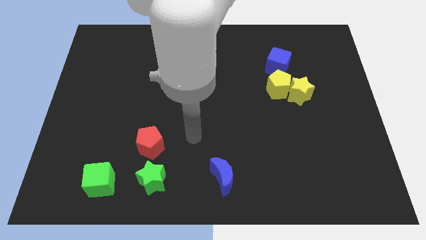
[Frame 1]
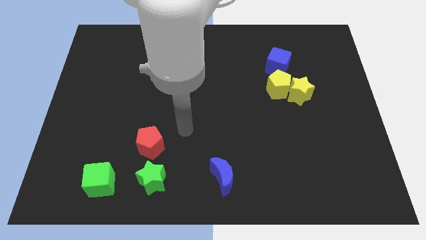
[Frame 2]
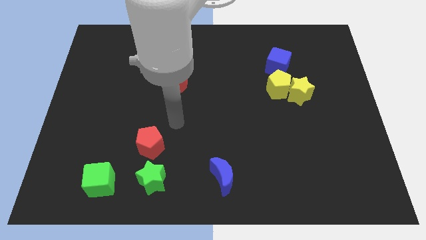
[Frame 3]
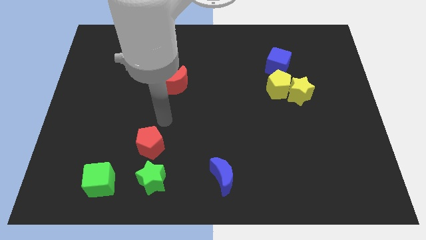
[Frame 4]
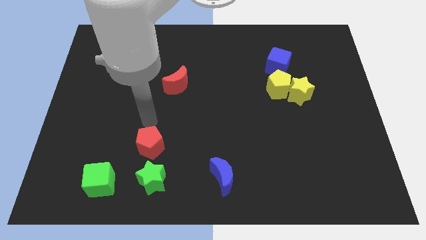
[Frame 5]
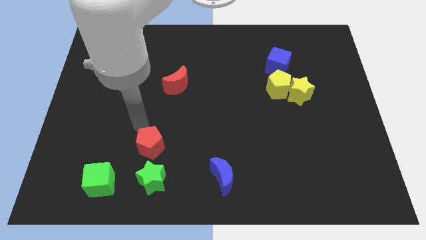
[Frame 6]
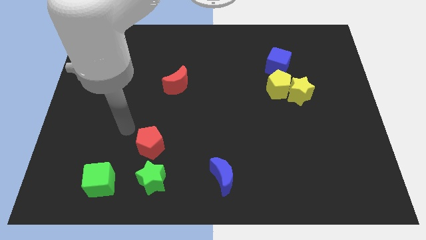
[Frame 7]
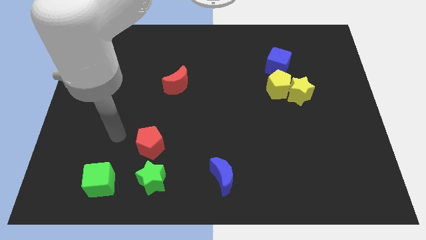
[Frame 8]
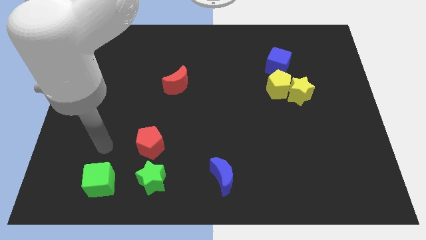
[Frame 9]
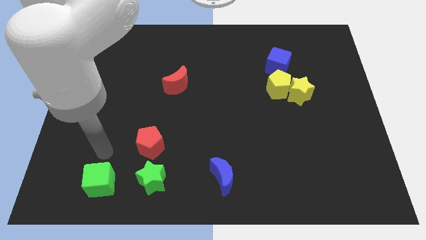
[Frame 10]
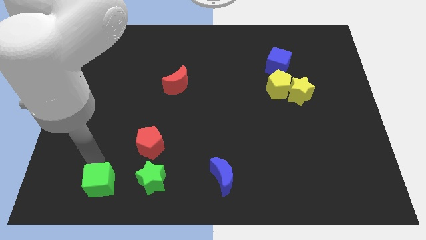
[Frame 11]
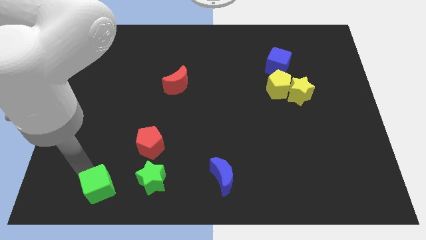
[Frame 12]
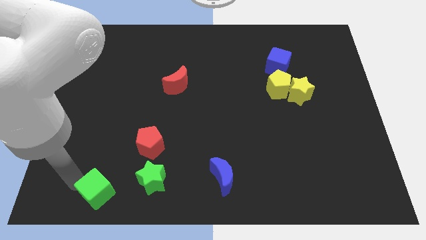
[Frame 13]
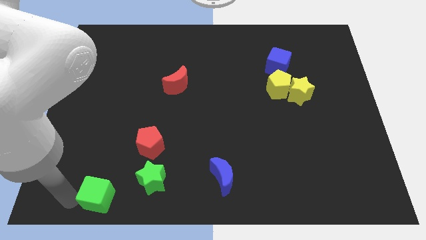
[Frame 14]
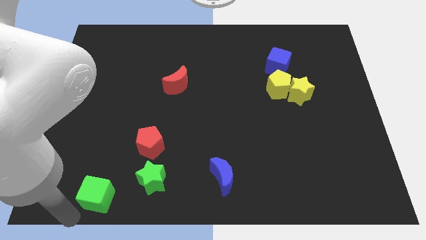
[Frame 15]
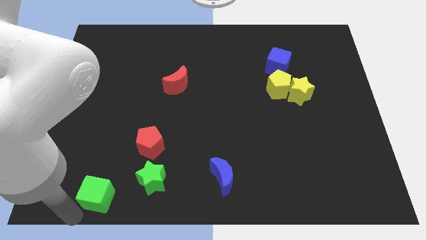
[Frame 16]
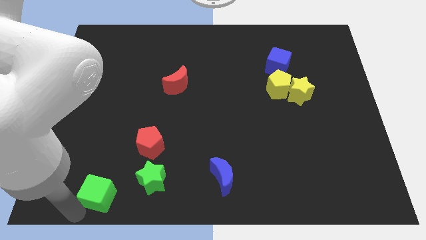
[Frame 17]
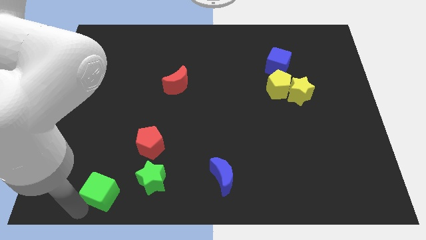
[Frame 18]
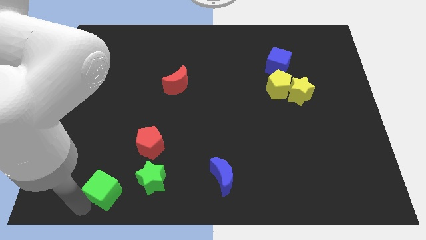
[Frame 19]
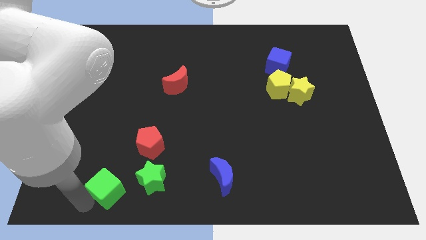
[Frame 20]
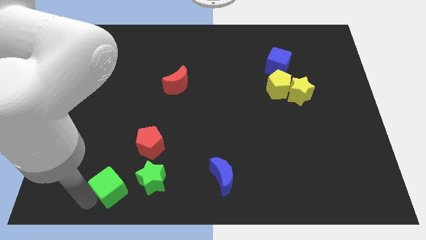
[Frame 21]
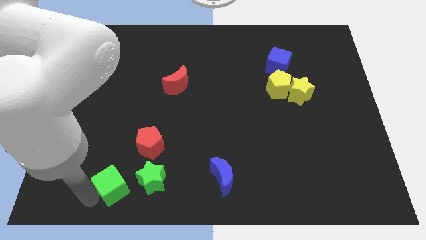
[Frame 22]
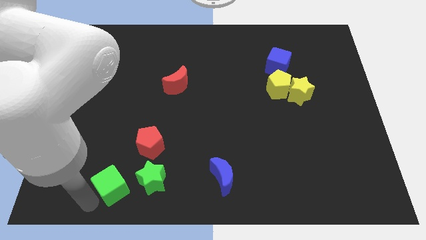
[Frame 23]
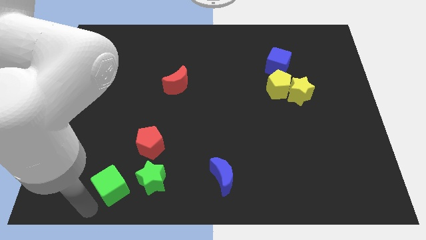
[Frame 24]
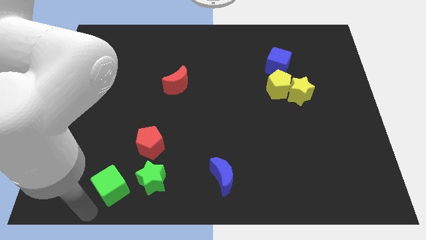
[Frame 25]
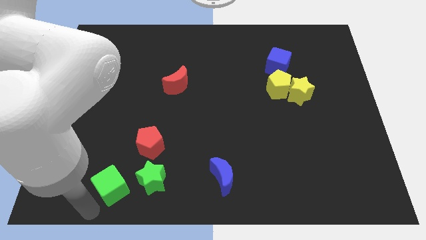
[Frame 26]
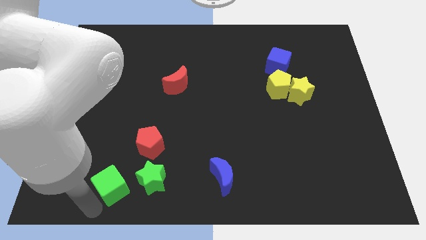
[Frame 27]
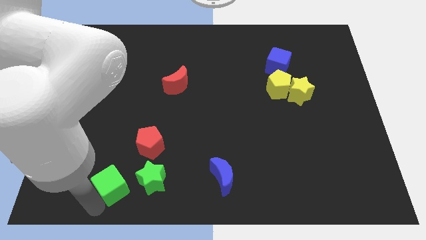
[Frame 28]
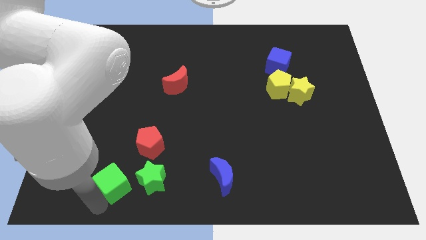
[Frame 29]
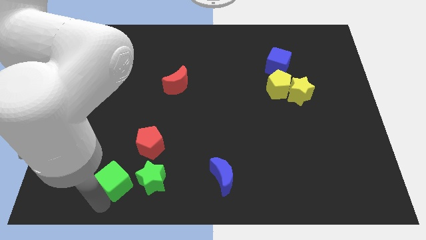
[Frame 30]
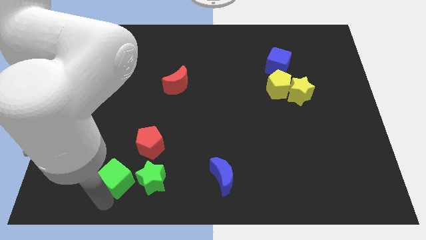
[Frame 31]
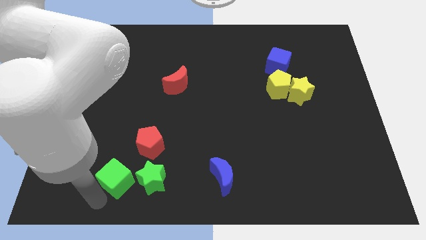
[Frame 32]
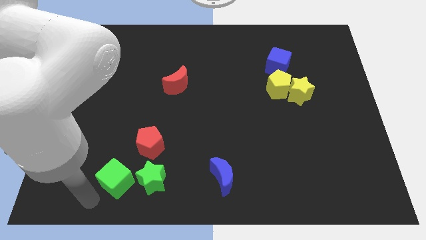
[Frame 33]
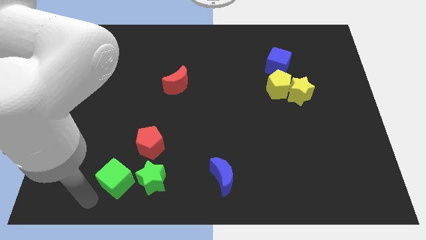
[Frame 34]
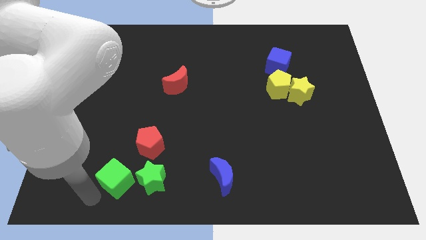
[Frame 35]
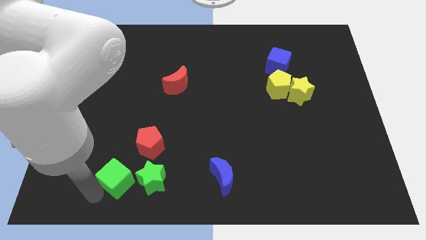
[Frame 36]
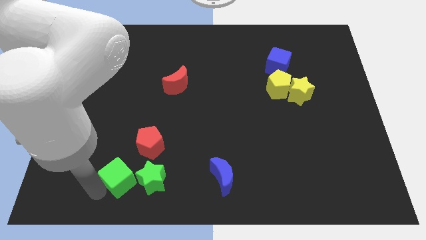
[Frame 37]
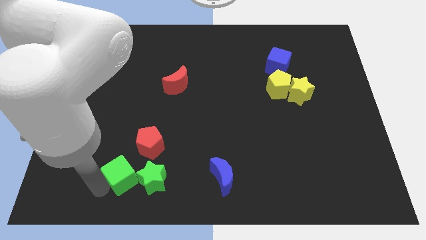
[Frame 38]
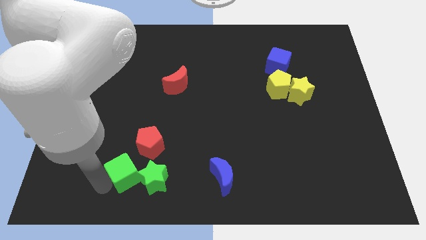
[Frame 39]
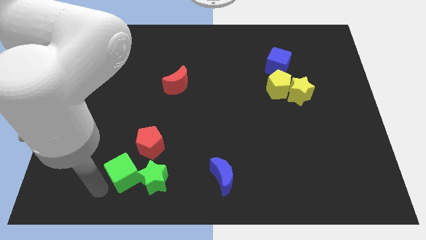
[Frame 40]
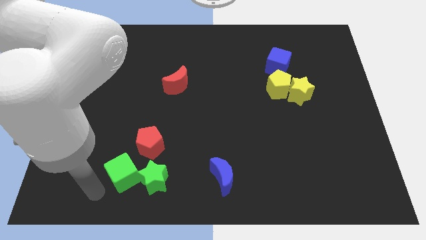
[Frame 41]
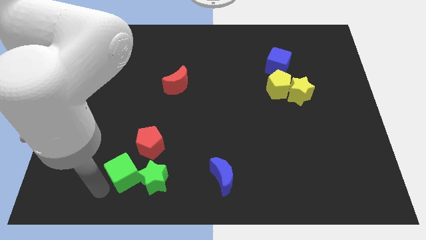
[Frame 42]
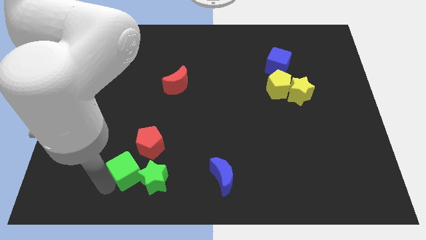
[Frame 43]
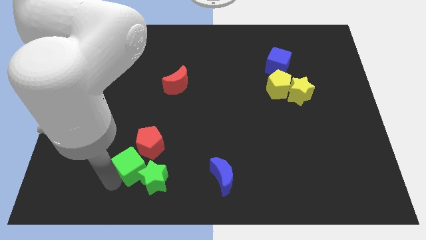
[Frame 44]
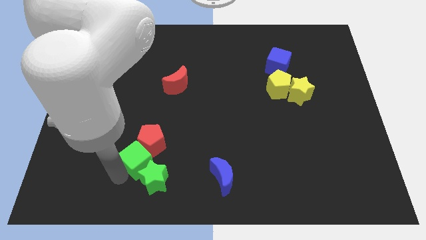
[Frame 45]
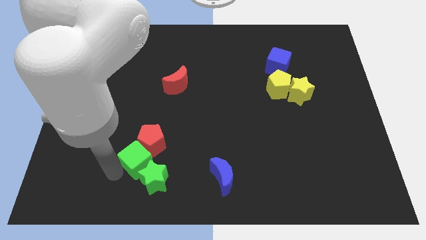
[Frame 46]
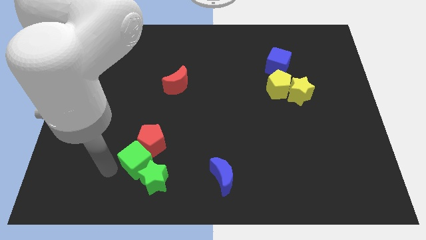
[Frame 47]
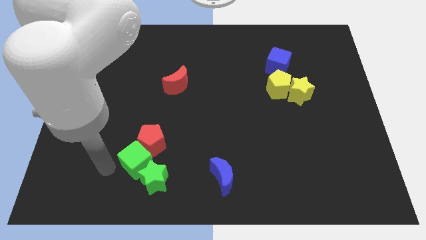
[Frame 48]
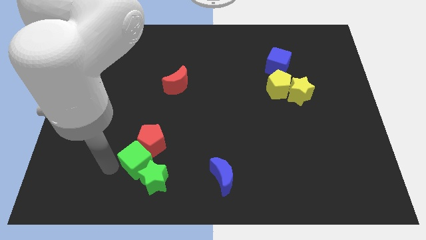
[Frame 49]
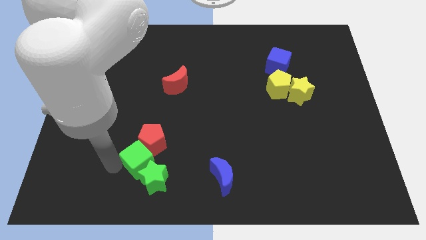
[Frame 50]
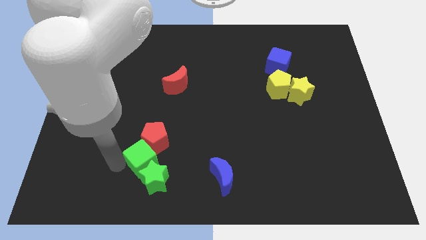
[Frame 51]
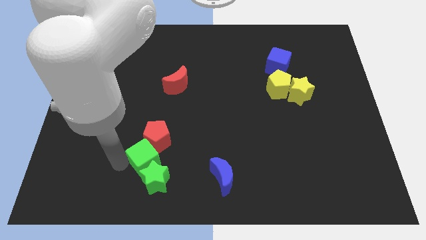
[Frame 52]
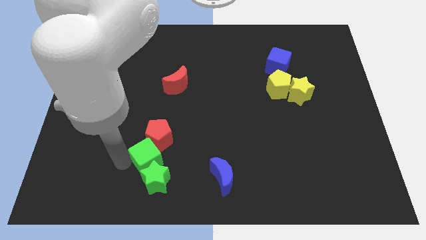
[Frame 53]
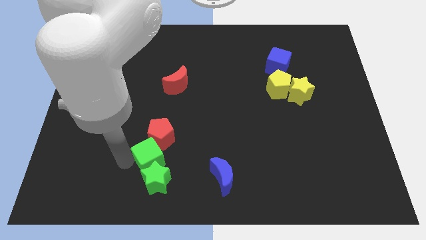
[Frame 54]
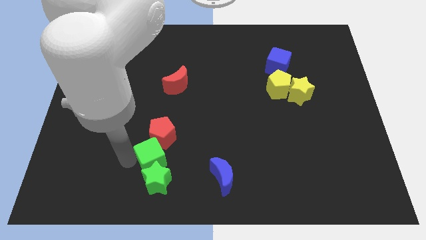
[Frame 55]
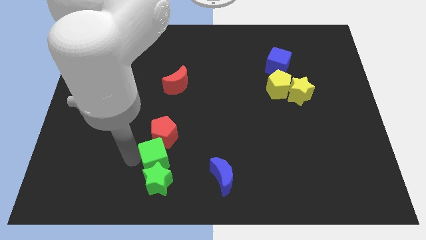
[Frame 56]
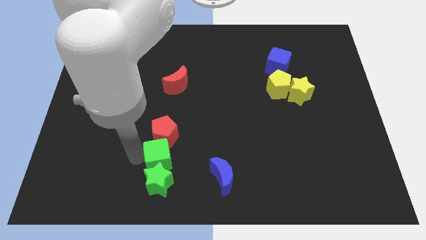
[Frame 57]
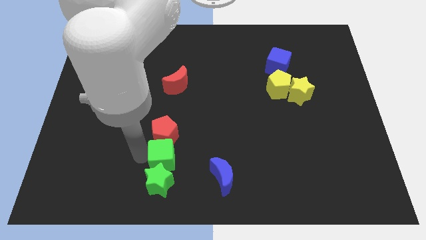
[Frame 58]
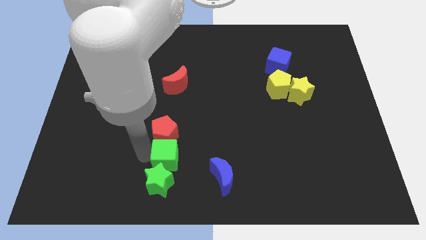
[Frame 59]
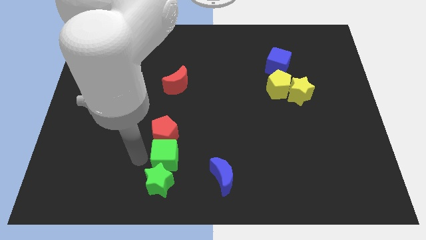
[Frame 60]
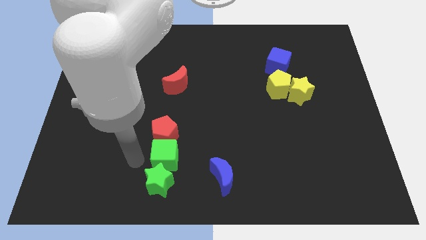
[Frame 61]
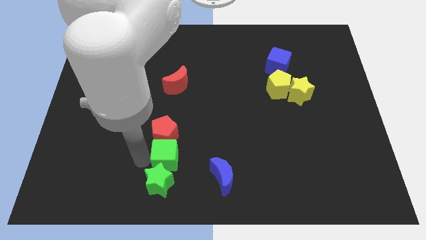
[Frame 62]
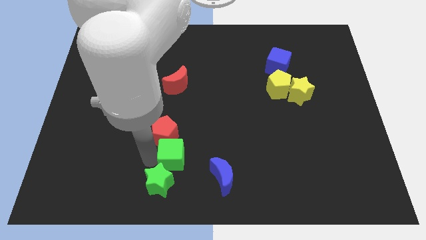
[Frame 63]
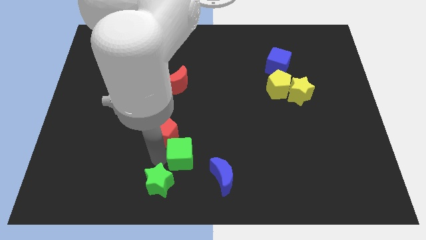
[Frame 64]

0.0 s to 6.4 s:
slide the green cube to the top left side of the blue moon

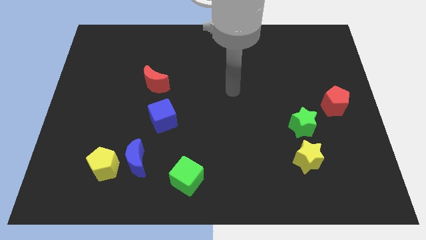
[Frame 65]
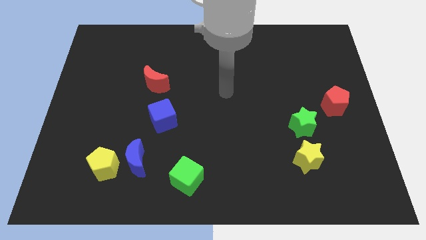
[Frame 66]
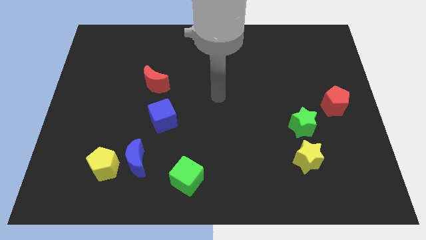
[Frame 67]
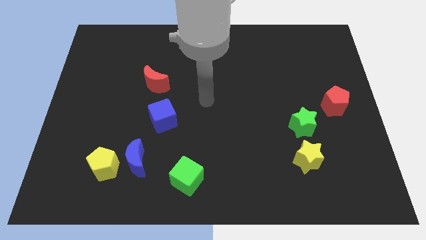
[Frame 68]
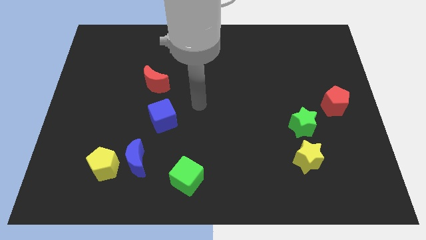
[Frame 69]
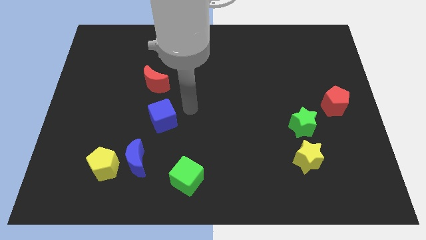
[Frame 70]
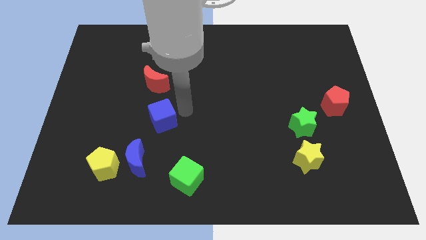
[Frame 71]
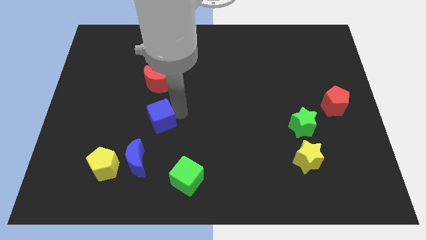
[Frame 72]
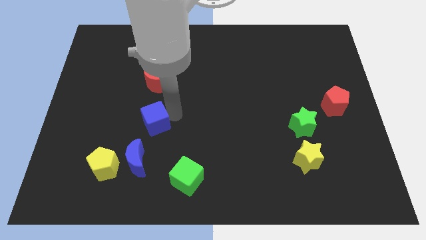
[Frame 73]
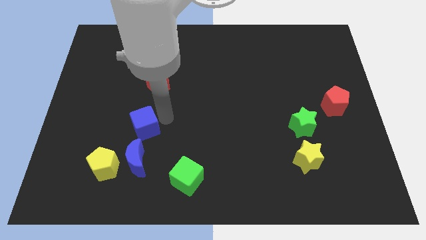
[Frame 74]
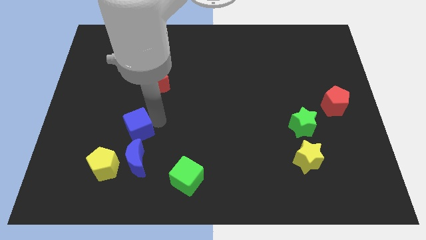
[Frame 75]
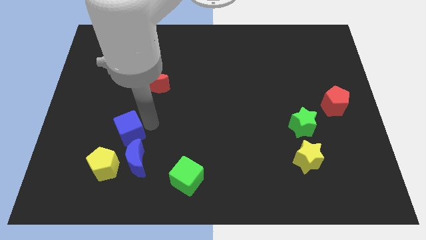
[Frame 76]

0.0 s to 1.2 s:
slide the blue cube to the top left of the blue moon

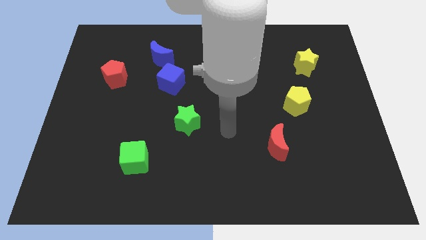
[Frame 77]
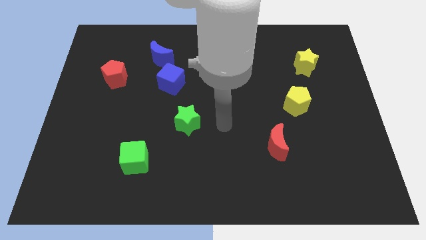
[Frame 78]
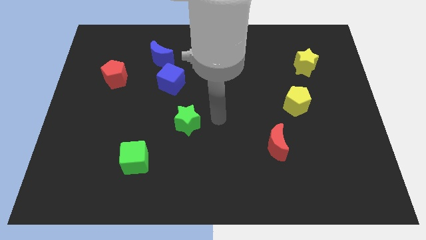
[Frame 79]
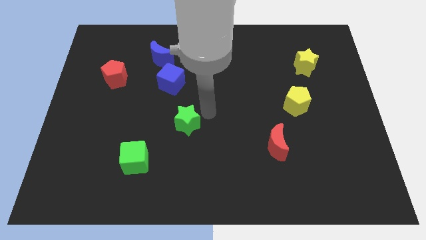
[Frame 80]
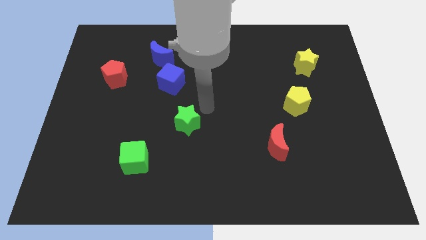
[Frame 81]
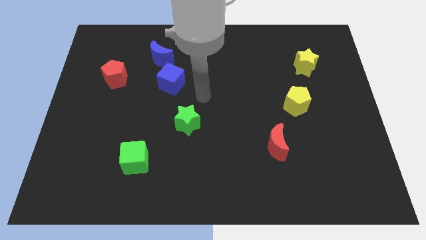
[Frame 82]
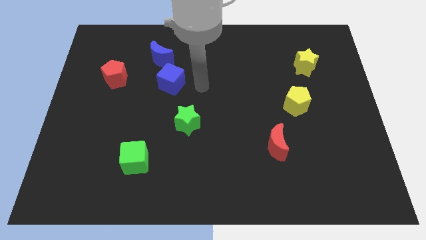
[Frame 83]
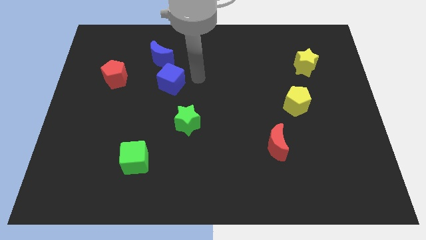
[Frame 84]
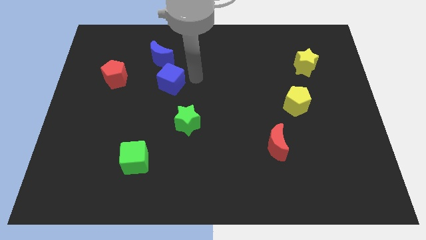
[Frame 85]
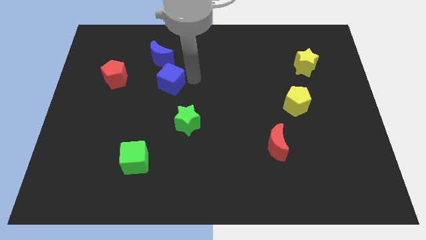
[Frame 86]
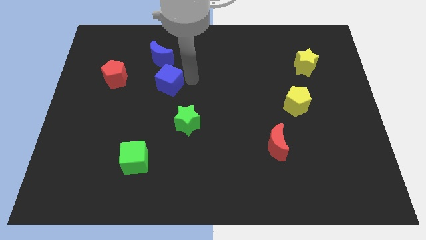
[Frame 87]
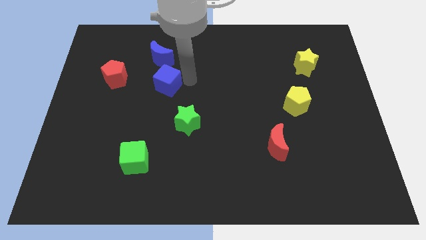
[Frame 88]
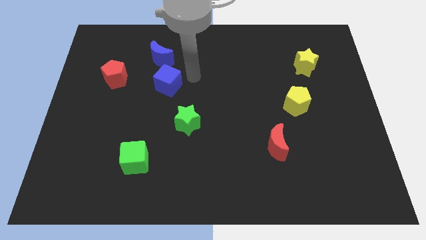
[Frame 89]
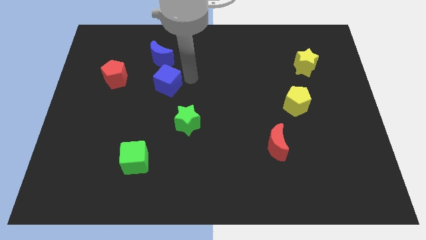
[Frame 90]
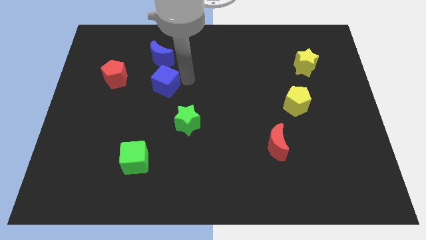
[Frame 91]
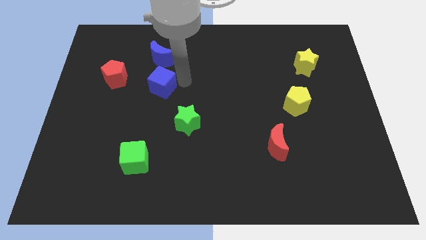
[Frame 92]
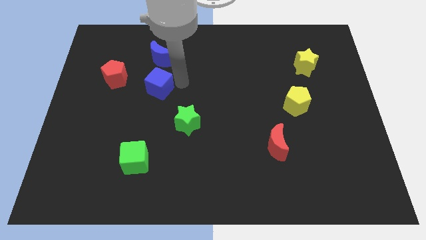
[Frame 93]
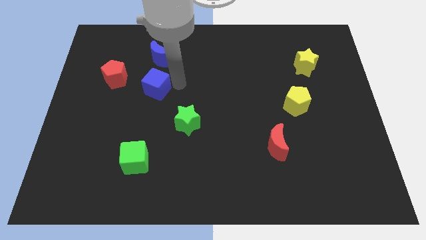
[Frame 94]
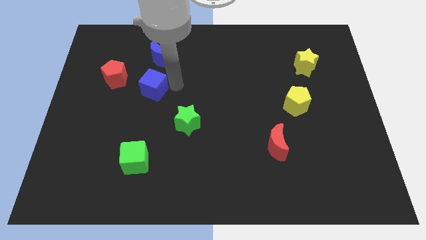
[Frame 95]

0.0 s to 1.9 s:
slide the blue cube to the bottom right side of the red pentagon
